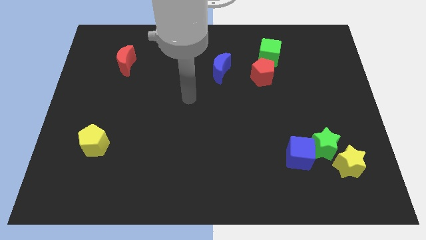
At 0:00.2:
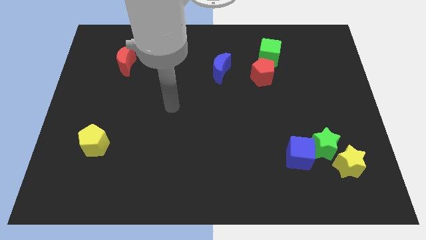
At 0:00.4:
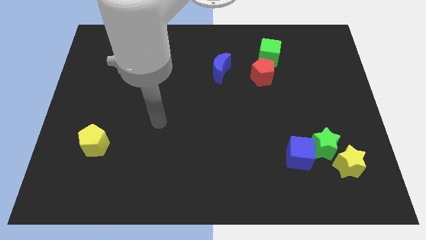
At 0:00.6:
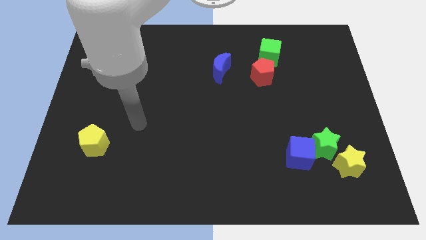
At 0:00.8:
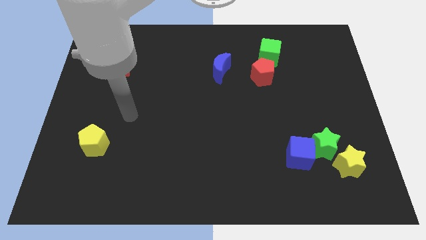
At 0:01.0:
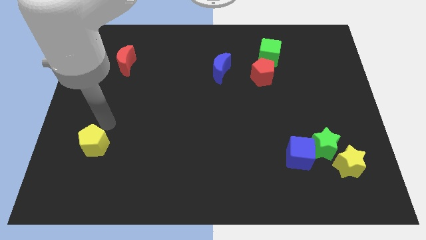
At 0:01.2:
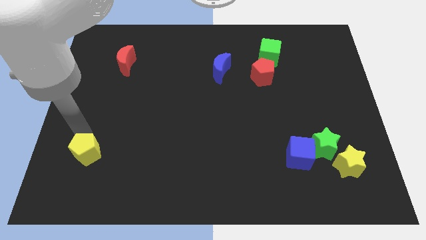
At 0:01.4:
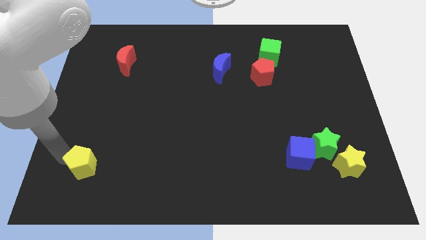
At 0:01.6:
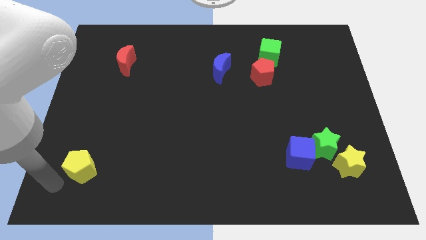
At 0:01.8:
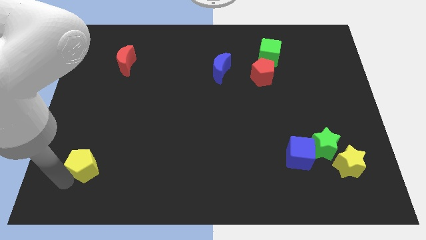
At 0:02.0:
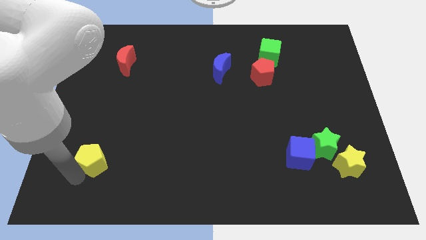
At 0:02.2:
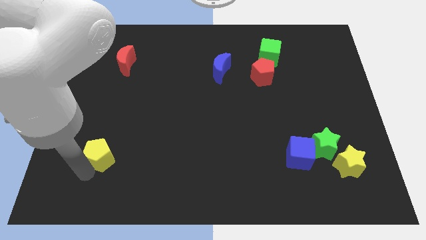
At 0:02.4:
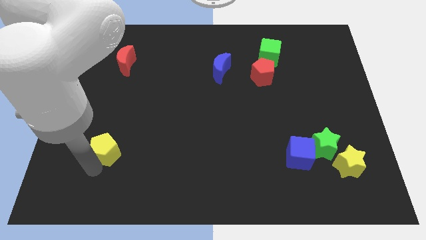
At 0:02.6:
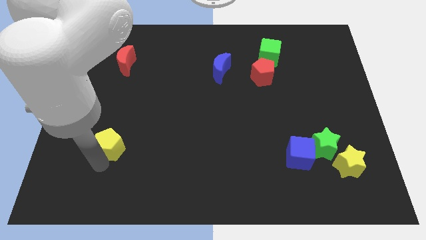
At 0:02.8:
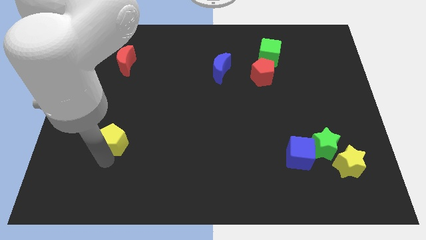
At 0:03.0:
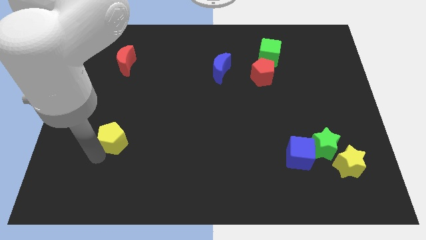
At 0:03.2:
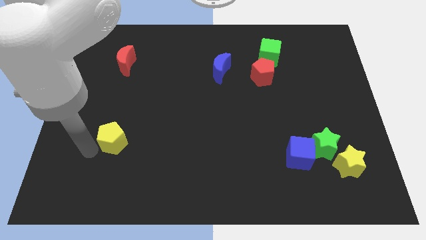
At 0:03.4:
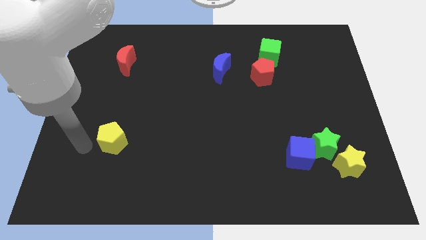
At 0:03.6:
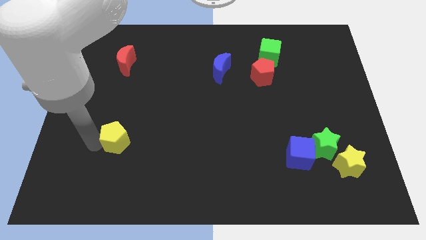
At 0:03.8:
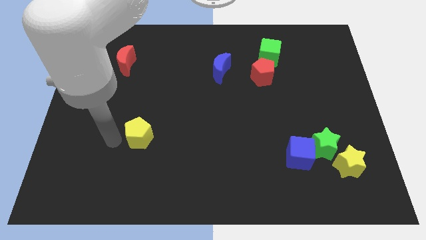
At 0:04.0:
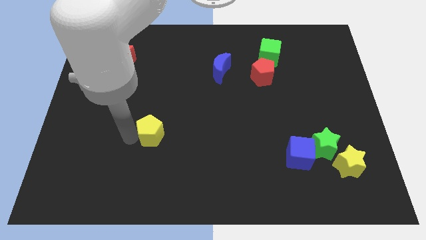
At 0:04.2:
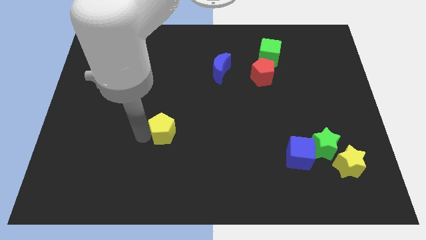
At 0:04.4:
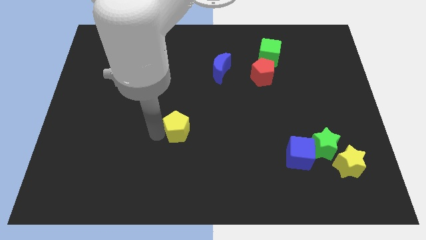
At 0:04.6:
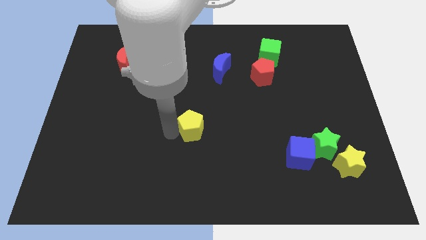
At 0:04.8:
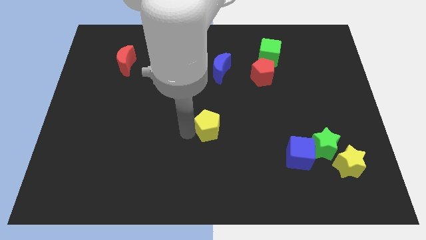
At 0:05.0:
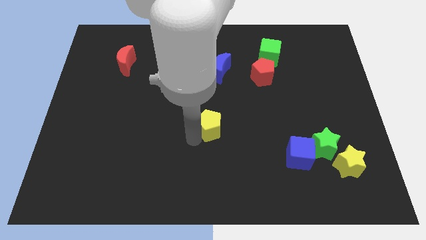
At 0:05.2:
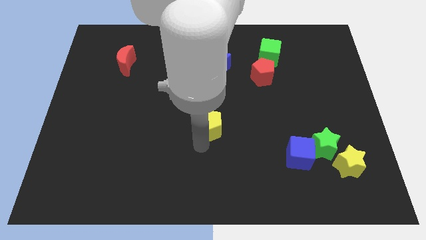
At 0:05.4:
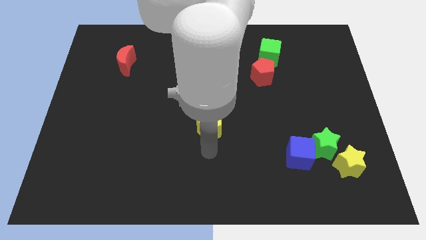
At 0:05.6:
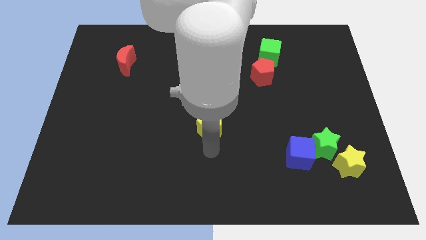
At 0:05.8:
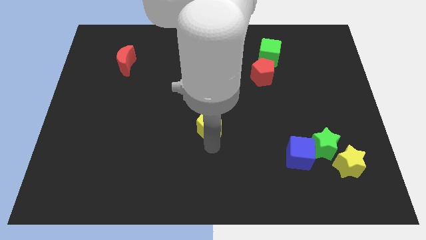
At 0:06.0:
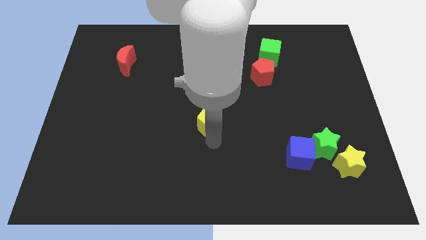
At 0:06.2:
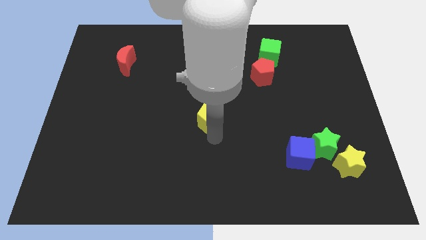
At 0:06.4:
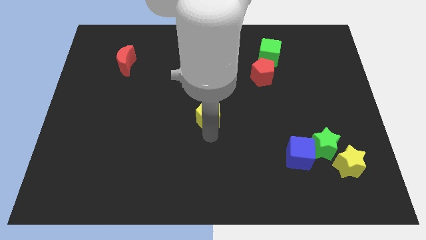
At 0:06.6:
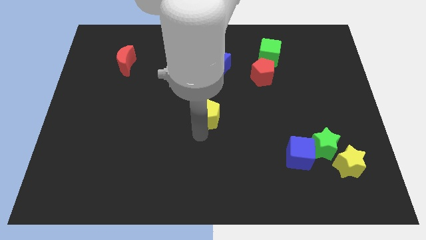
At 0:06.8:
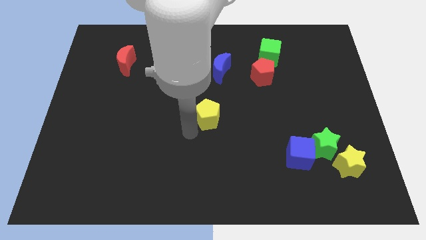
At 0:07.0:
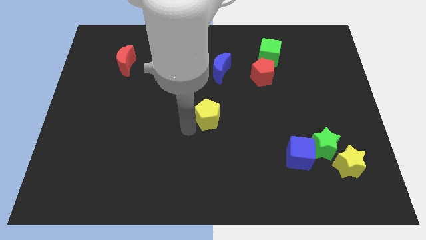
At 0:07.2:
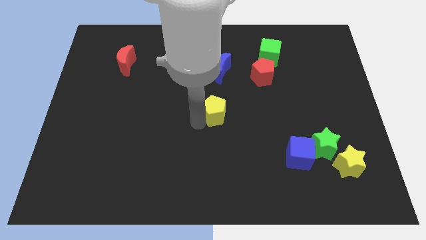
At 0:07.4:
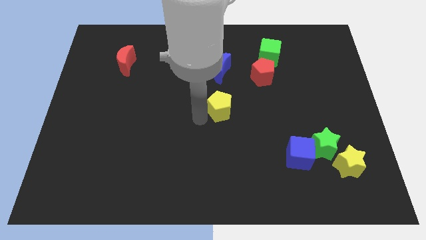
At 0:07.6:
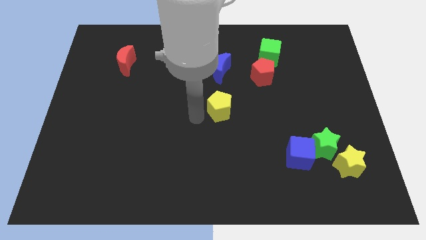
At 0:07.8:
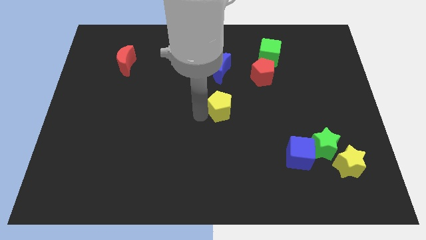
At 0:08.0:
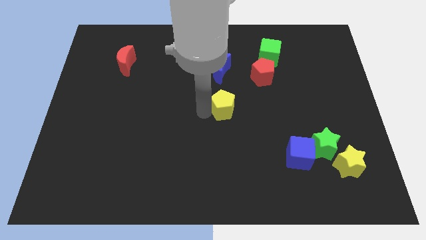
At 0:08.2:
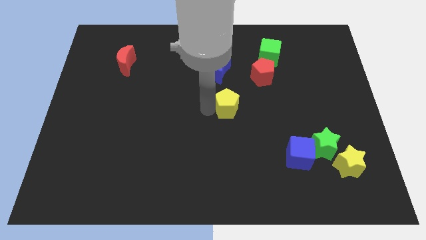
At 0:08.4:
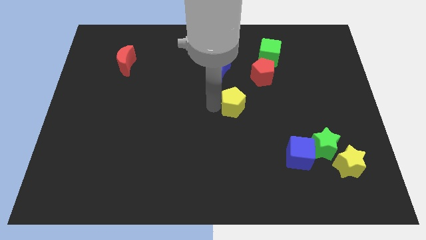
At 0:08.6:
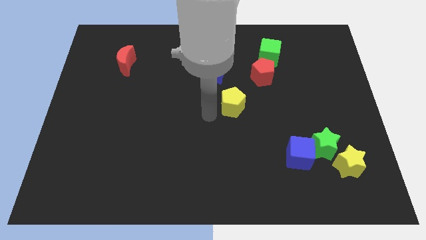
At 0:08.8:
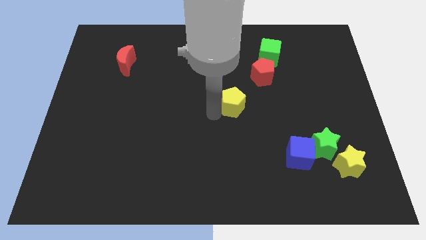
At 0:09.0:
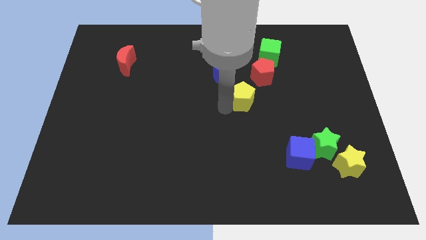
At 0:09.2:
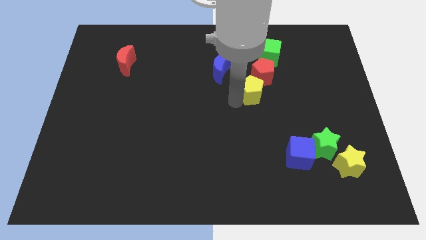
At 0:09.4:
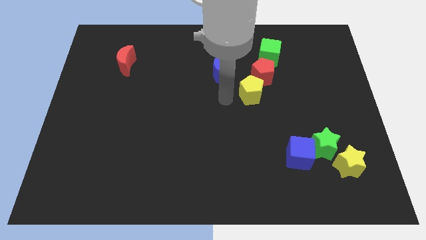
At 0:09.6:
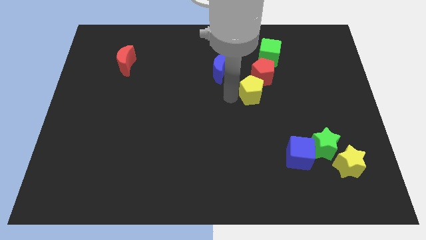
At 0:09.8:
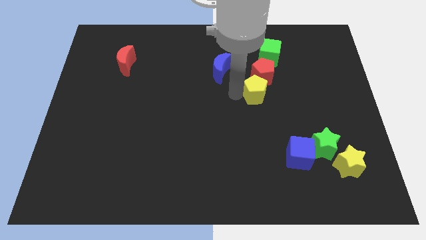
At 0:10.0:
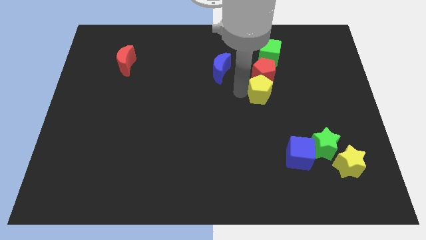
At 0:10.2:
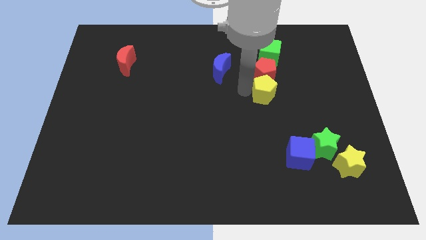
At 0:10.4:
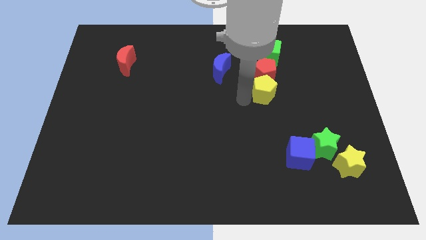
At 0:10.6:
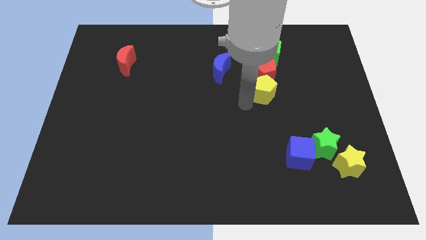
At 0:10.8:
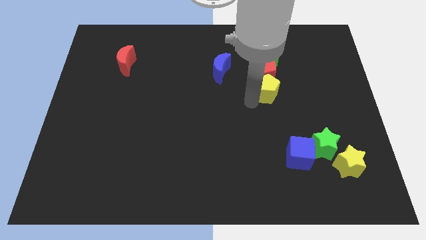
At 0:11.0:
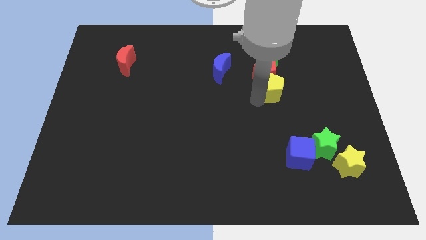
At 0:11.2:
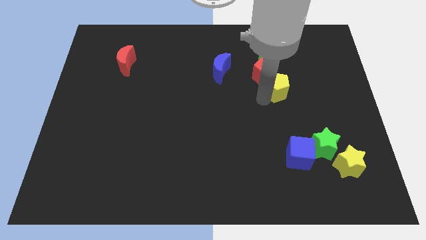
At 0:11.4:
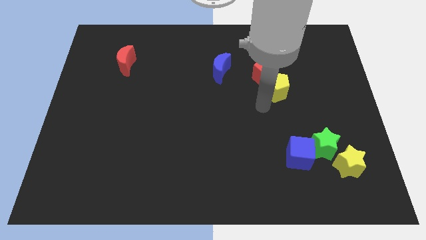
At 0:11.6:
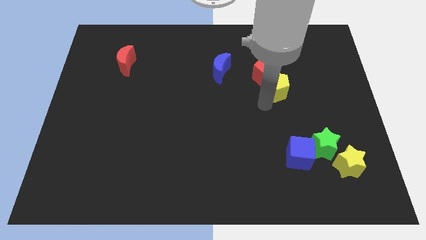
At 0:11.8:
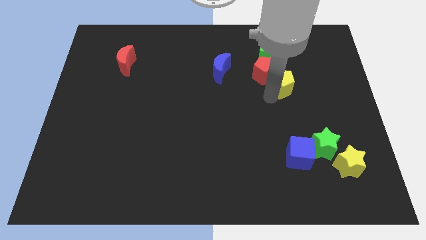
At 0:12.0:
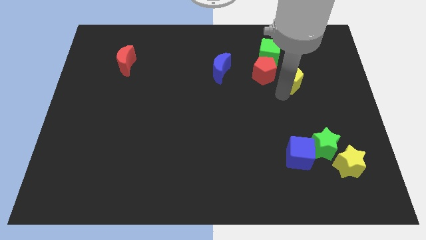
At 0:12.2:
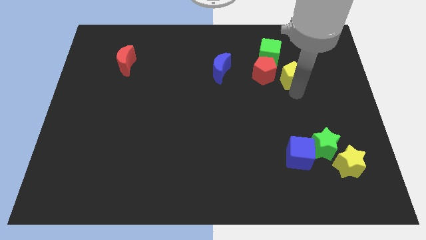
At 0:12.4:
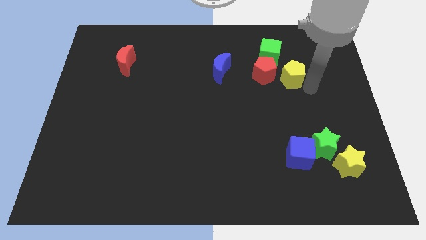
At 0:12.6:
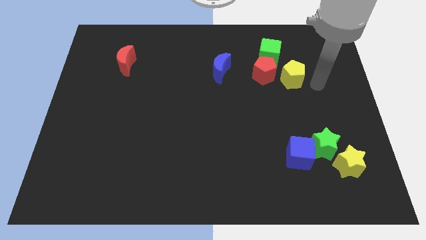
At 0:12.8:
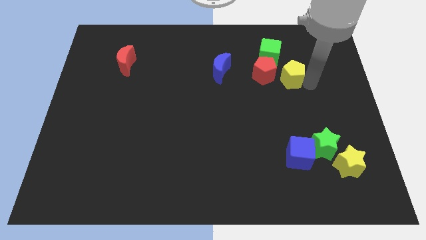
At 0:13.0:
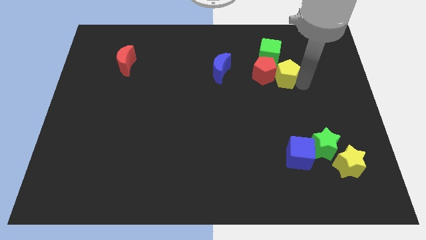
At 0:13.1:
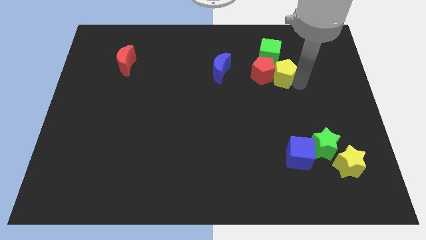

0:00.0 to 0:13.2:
push the yellow pentagon just right of the blue moon

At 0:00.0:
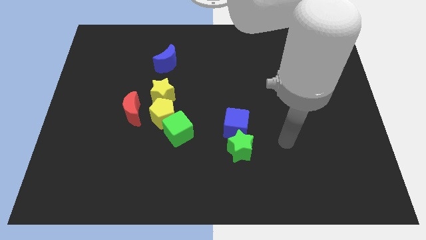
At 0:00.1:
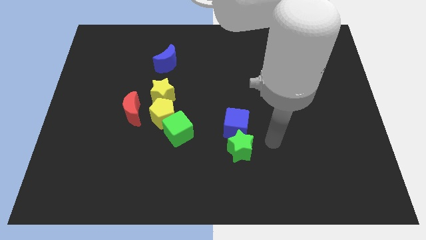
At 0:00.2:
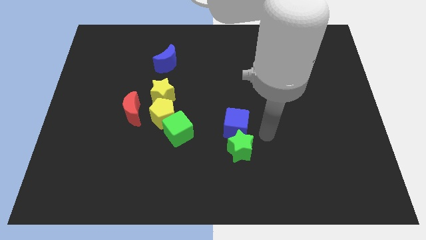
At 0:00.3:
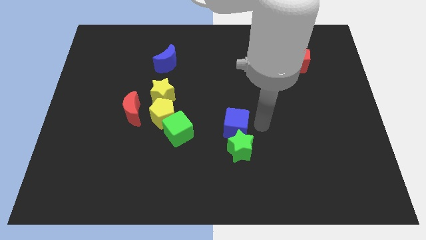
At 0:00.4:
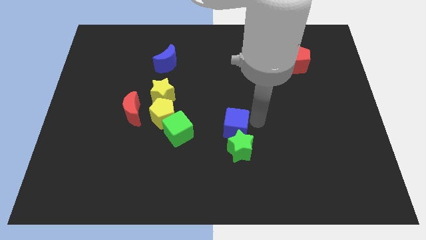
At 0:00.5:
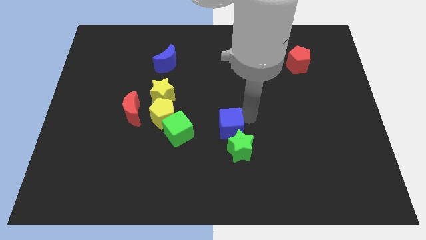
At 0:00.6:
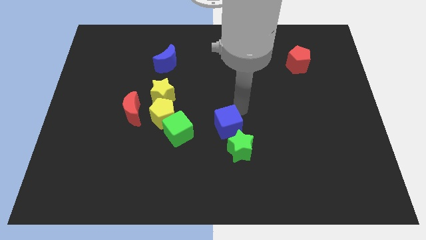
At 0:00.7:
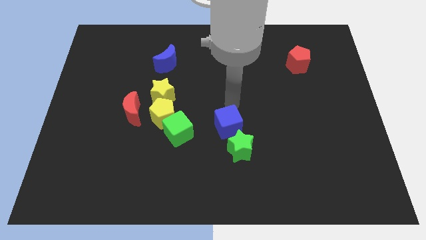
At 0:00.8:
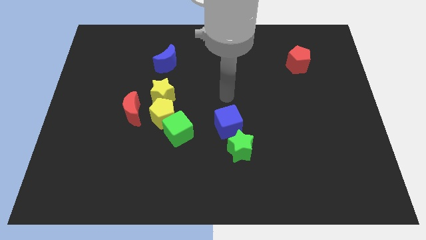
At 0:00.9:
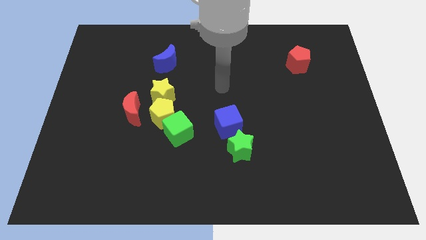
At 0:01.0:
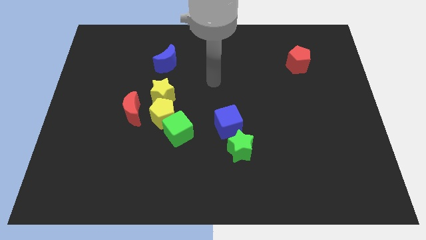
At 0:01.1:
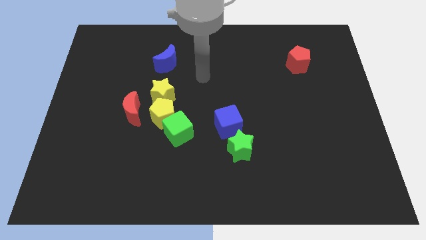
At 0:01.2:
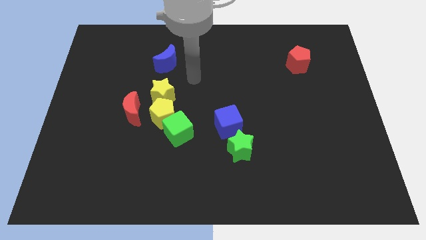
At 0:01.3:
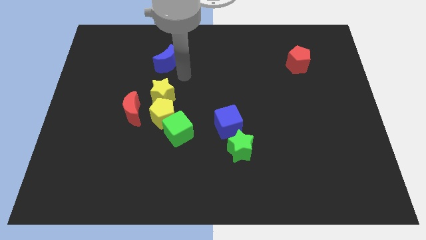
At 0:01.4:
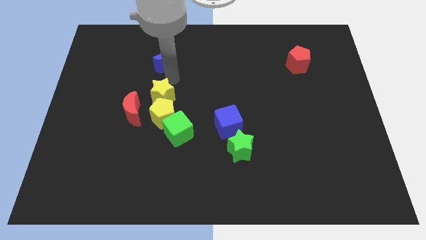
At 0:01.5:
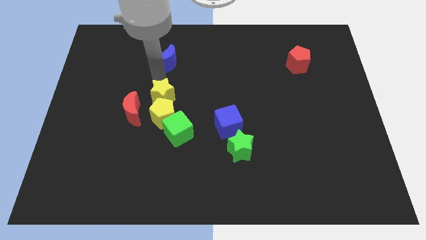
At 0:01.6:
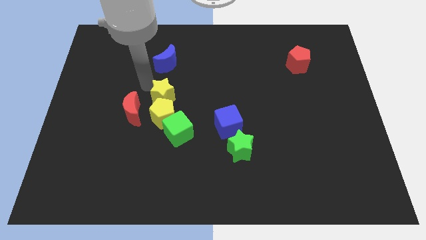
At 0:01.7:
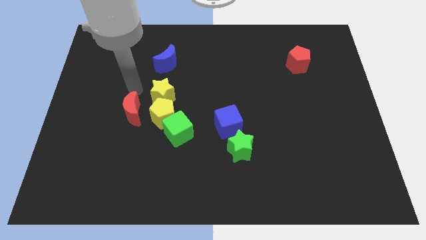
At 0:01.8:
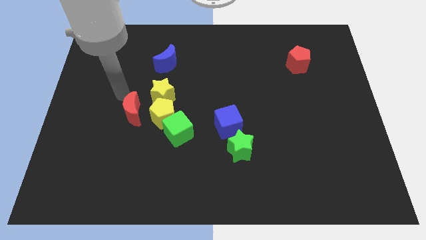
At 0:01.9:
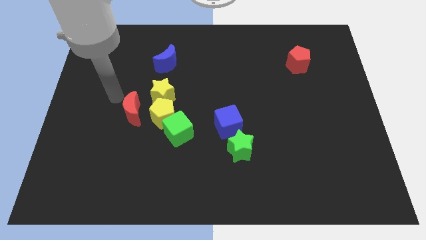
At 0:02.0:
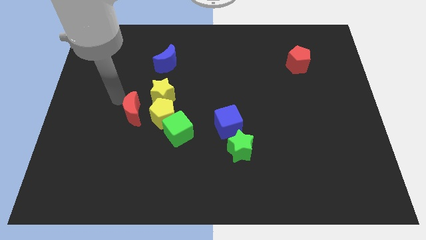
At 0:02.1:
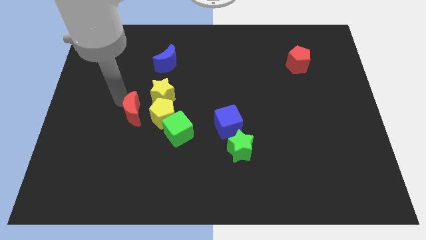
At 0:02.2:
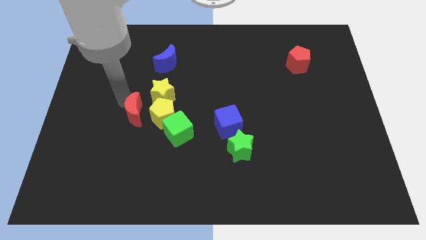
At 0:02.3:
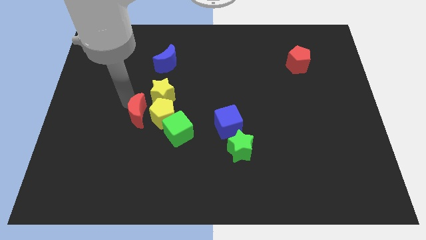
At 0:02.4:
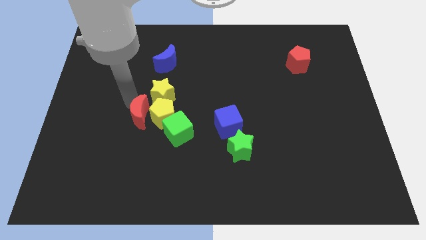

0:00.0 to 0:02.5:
slide the red moon to the bottom side of the yellow star
